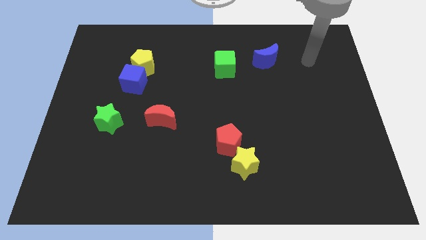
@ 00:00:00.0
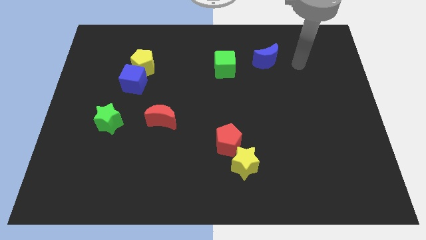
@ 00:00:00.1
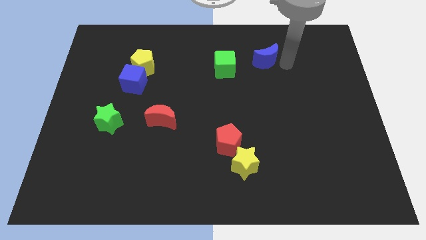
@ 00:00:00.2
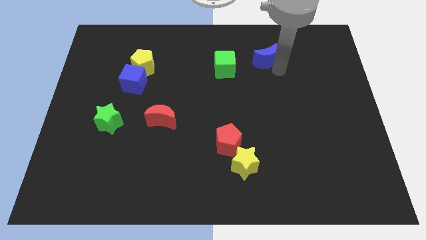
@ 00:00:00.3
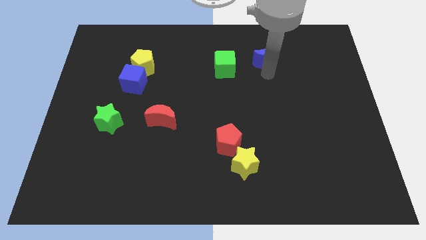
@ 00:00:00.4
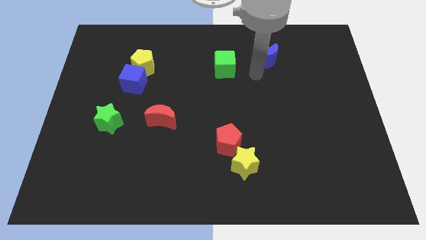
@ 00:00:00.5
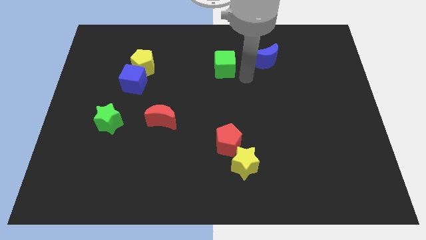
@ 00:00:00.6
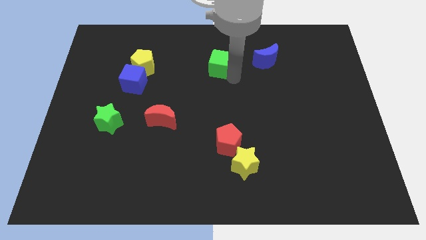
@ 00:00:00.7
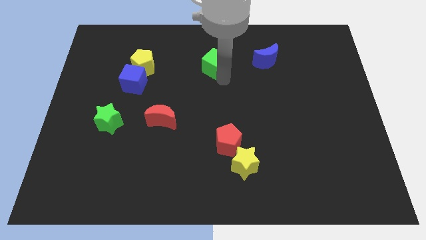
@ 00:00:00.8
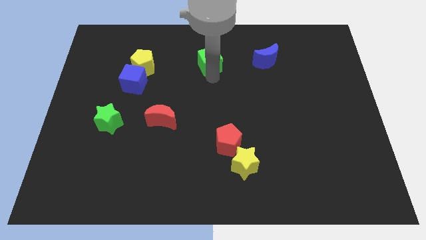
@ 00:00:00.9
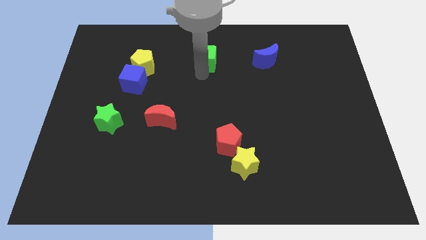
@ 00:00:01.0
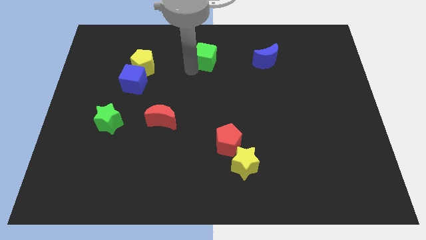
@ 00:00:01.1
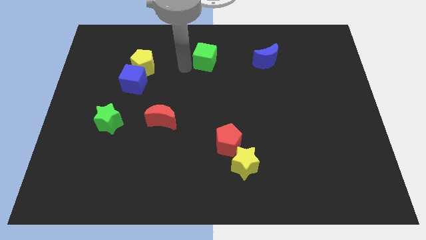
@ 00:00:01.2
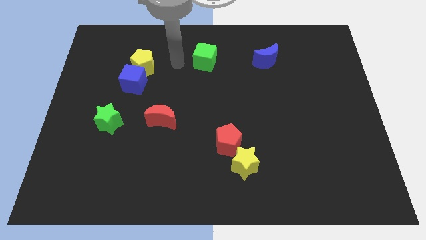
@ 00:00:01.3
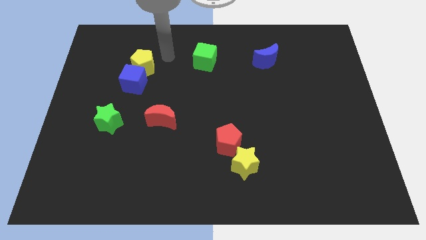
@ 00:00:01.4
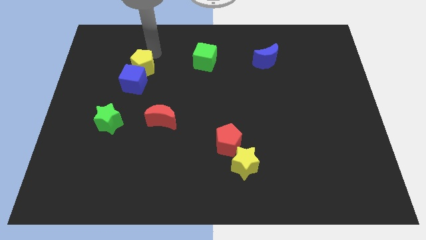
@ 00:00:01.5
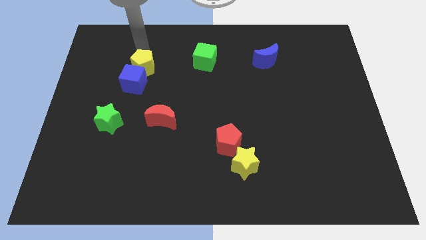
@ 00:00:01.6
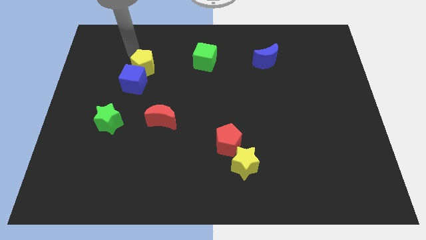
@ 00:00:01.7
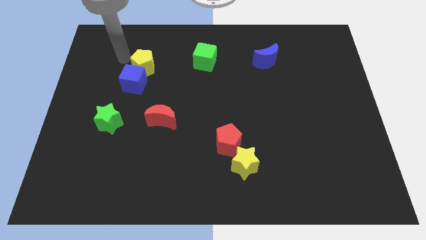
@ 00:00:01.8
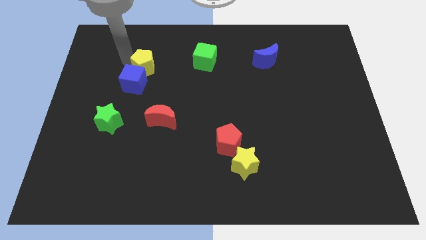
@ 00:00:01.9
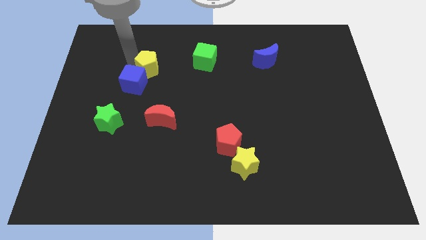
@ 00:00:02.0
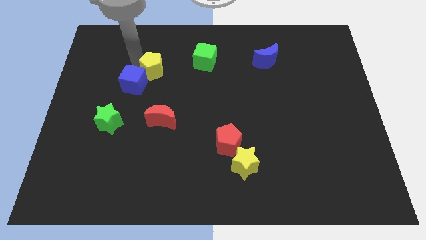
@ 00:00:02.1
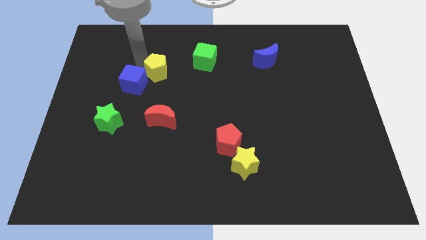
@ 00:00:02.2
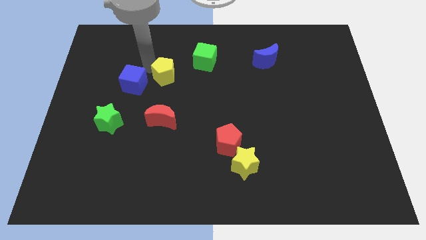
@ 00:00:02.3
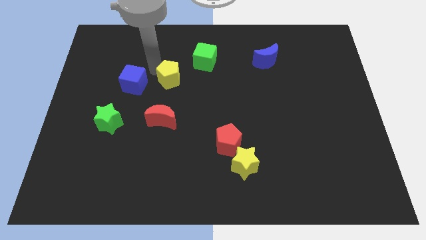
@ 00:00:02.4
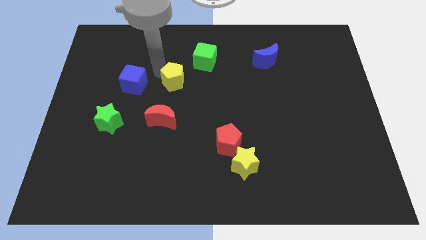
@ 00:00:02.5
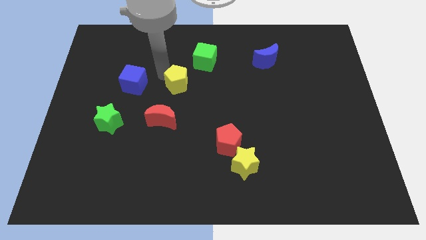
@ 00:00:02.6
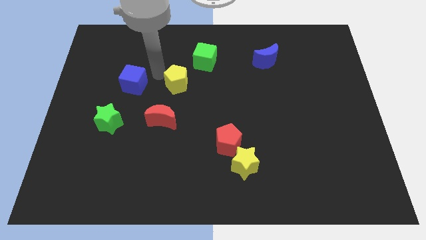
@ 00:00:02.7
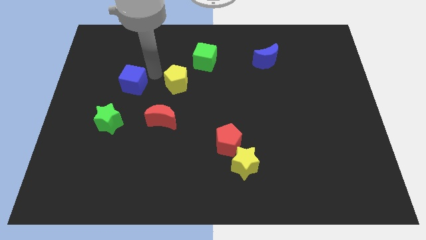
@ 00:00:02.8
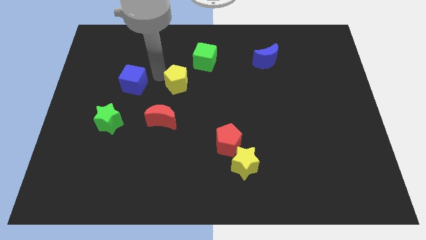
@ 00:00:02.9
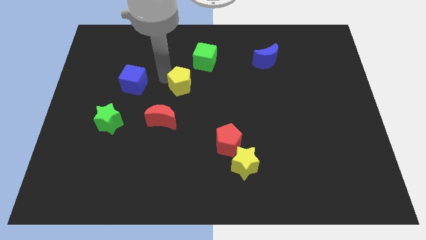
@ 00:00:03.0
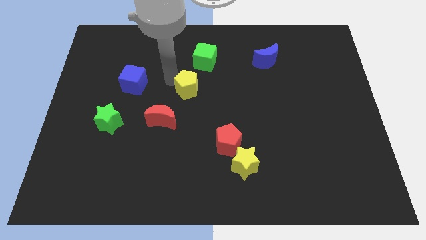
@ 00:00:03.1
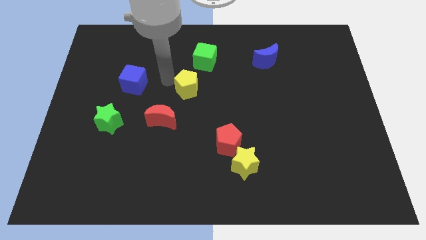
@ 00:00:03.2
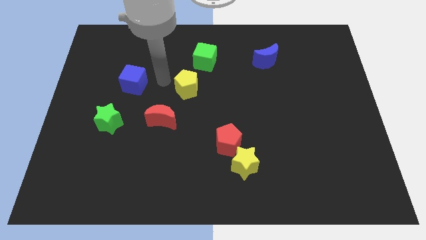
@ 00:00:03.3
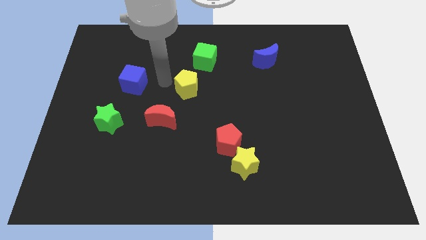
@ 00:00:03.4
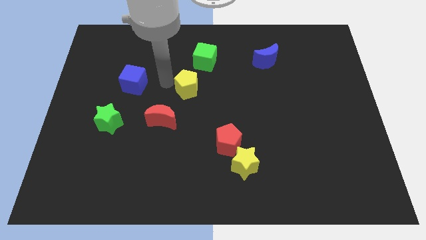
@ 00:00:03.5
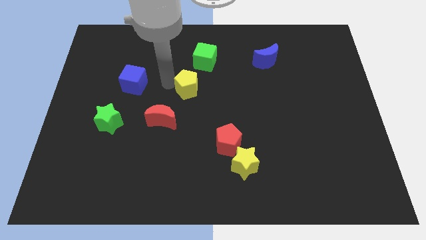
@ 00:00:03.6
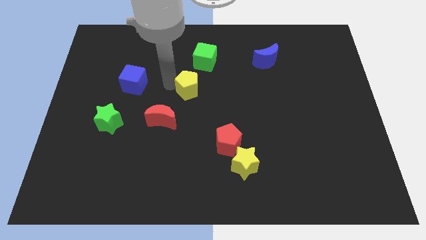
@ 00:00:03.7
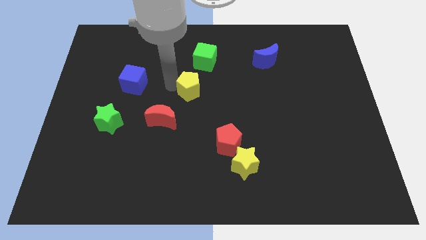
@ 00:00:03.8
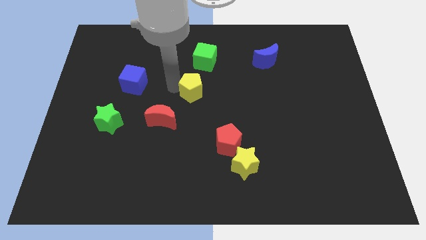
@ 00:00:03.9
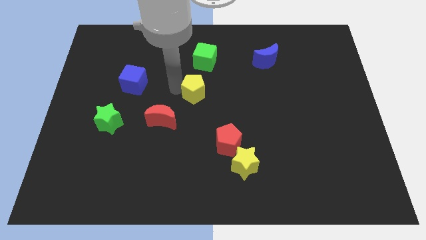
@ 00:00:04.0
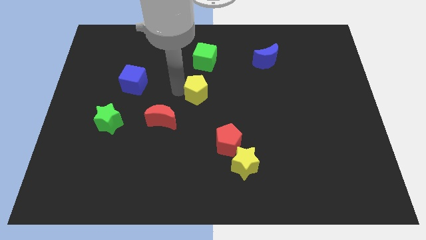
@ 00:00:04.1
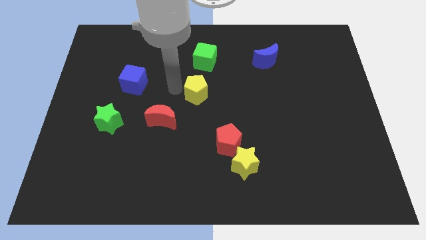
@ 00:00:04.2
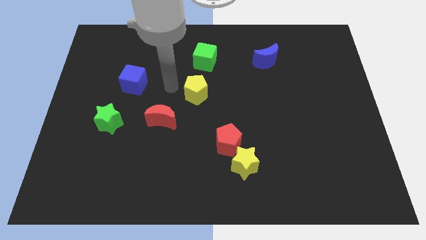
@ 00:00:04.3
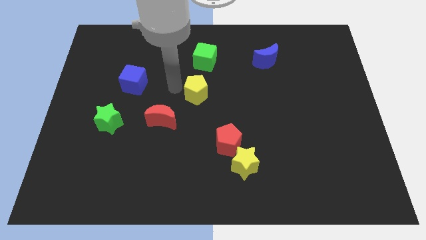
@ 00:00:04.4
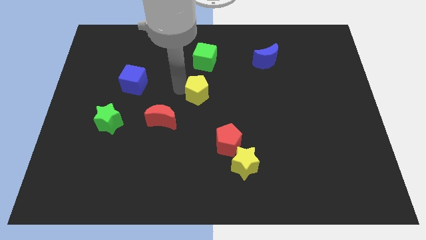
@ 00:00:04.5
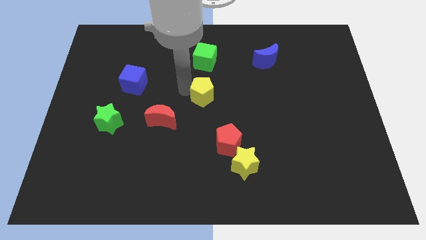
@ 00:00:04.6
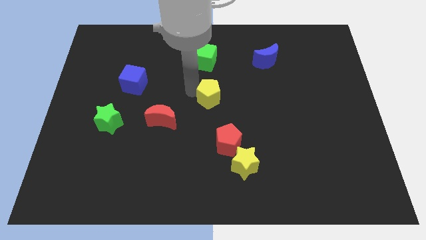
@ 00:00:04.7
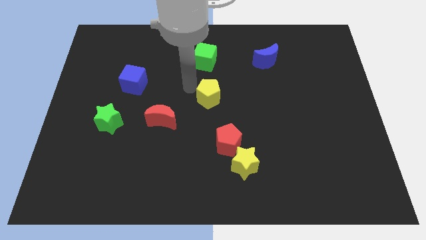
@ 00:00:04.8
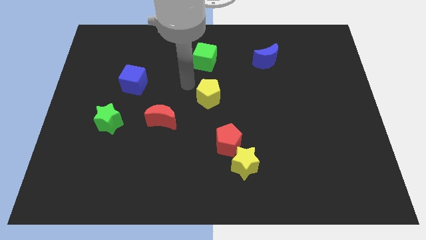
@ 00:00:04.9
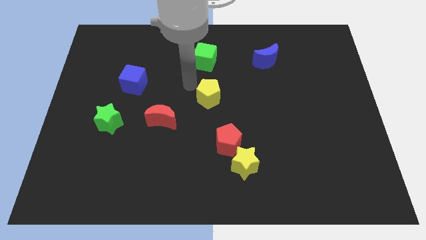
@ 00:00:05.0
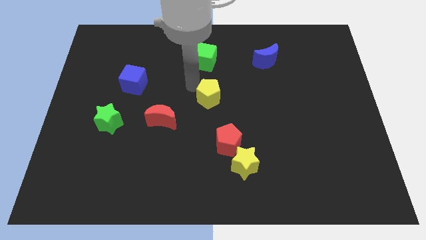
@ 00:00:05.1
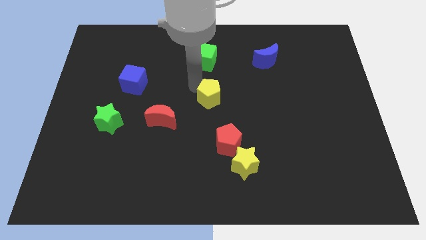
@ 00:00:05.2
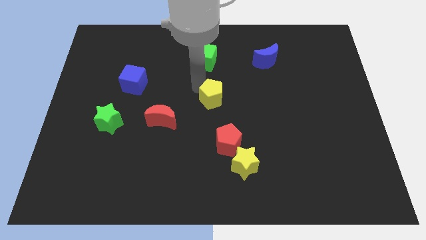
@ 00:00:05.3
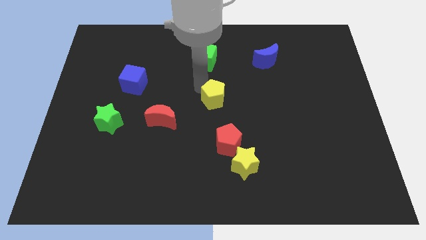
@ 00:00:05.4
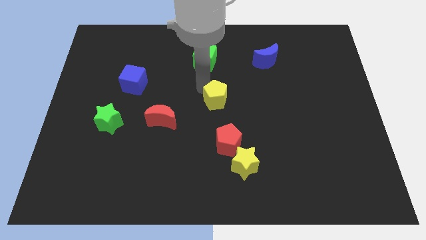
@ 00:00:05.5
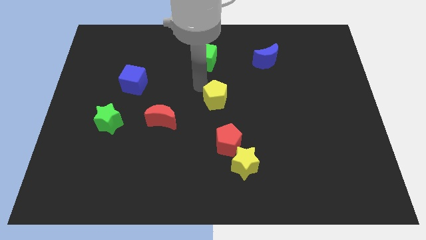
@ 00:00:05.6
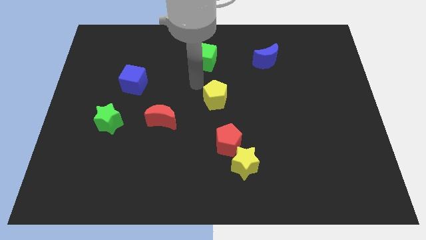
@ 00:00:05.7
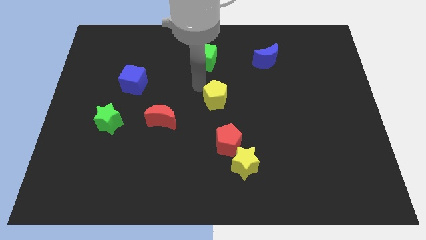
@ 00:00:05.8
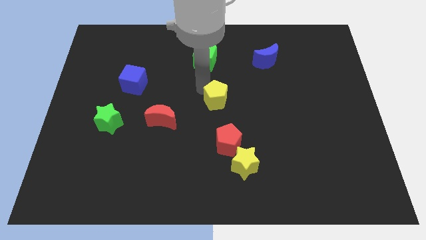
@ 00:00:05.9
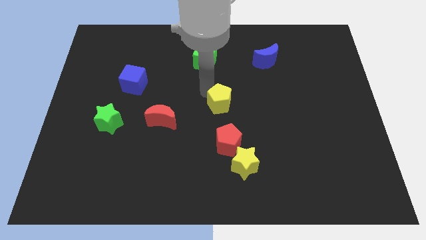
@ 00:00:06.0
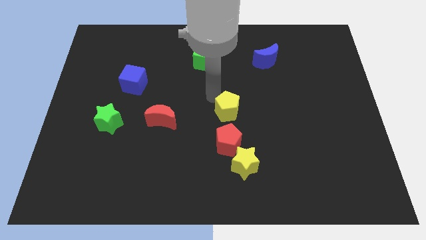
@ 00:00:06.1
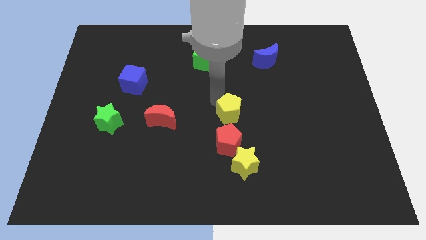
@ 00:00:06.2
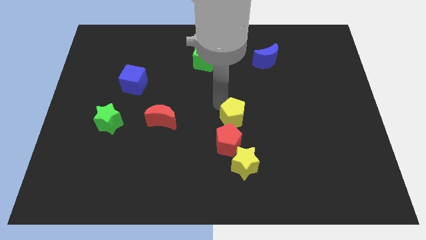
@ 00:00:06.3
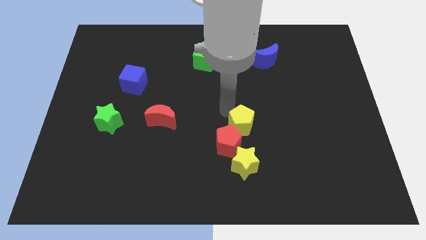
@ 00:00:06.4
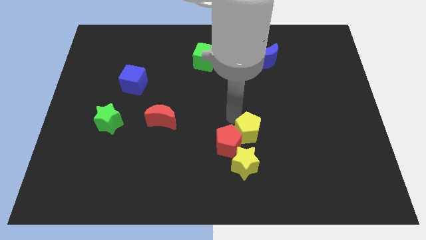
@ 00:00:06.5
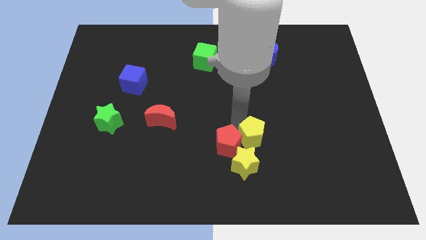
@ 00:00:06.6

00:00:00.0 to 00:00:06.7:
put the yellow pentagon to the top right of the yellow star
